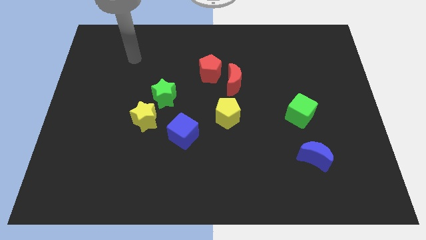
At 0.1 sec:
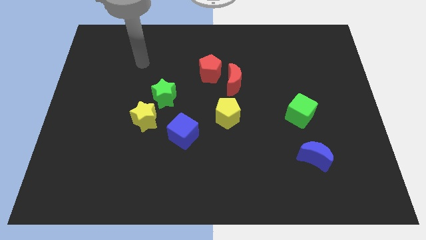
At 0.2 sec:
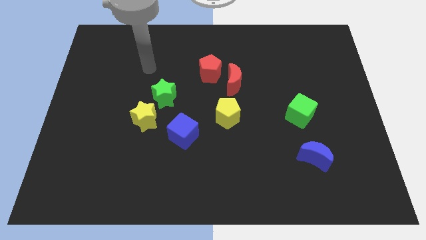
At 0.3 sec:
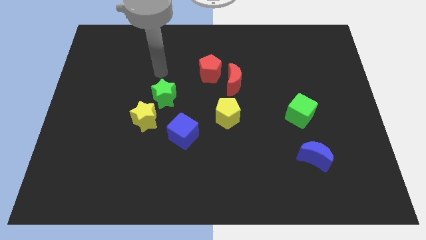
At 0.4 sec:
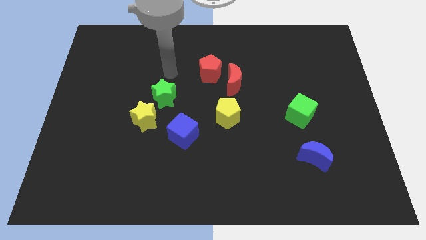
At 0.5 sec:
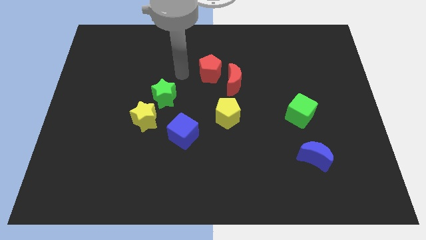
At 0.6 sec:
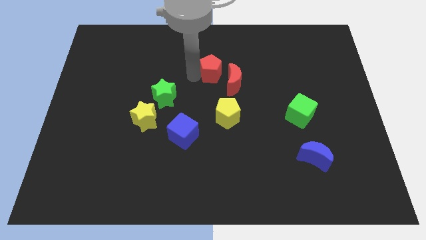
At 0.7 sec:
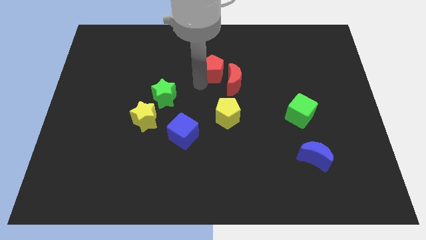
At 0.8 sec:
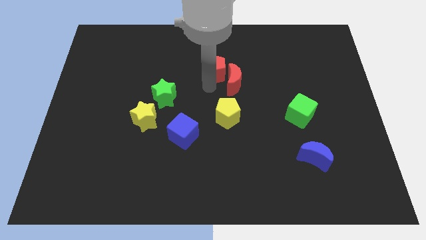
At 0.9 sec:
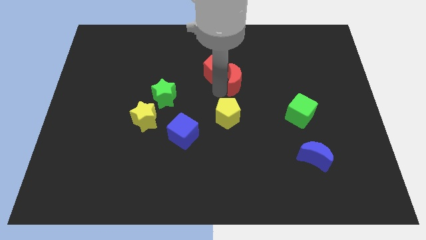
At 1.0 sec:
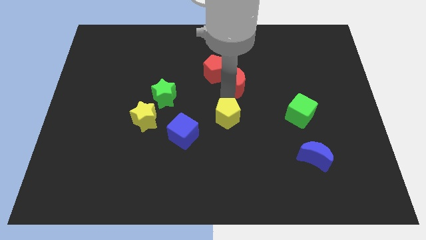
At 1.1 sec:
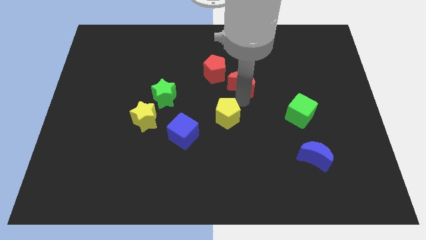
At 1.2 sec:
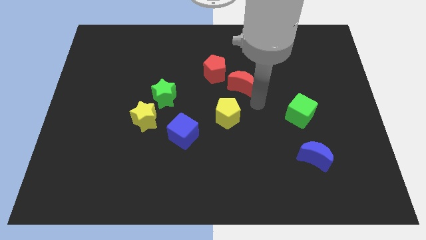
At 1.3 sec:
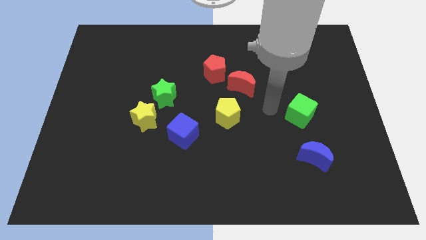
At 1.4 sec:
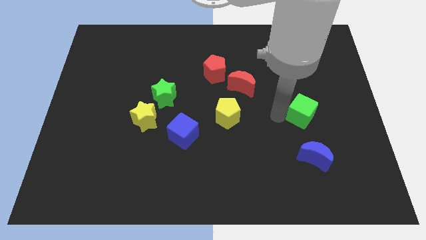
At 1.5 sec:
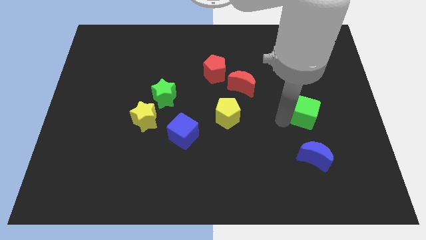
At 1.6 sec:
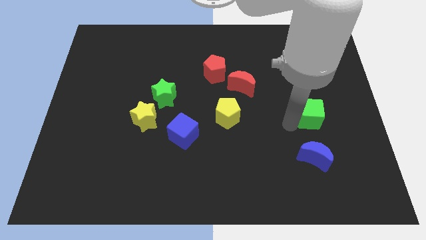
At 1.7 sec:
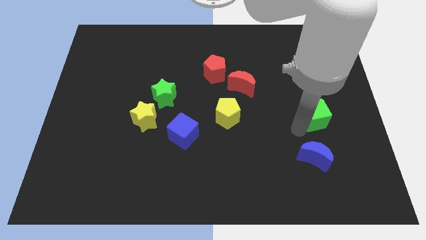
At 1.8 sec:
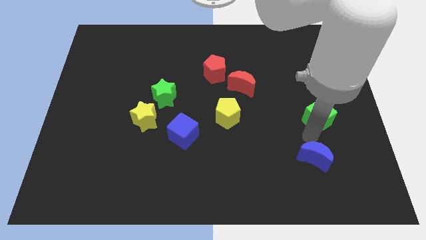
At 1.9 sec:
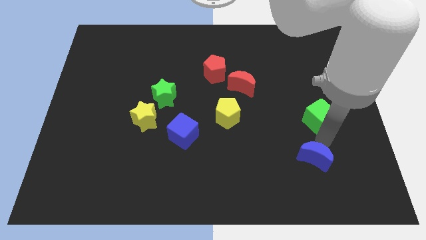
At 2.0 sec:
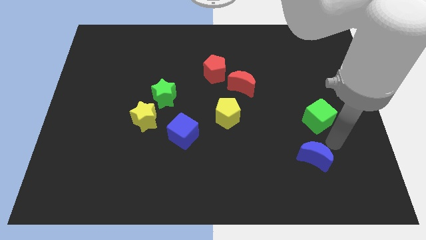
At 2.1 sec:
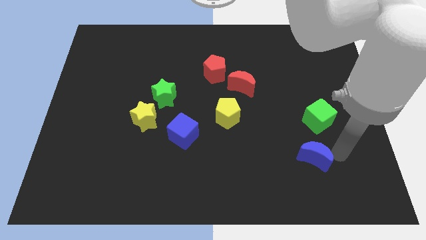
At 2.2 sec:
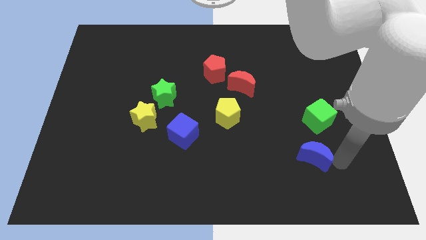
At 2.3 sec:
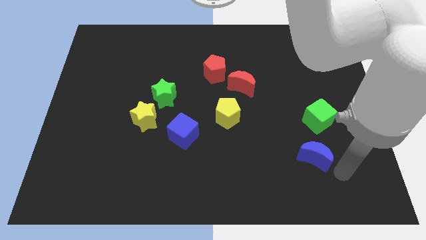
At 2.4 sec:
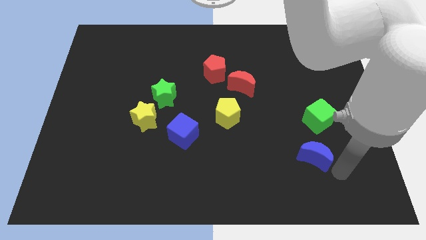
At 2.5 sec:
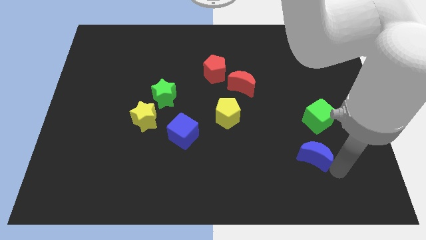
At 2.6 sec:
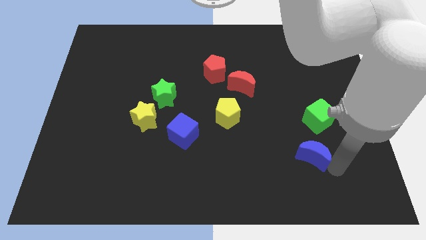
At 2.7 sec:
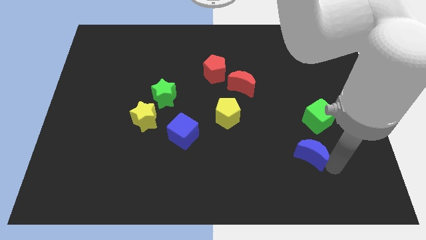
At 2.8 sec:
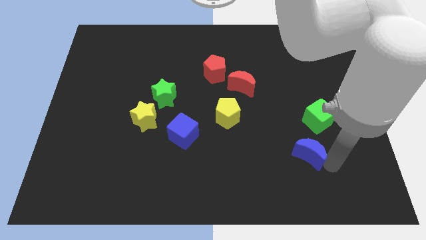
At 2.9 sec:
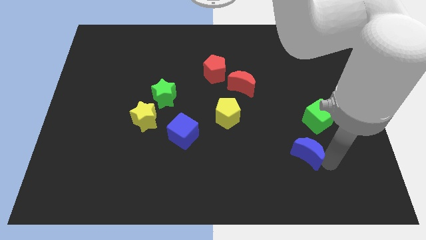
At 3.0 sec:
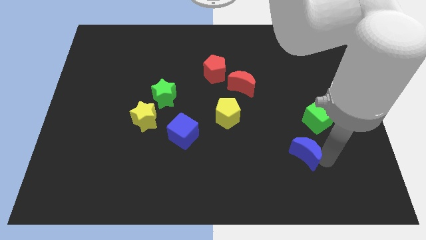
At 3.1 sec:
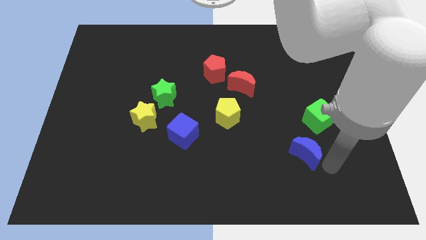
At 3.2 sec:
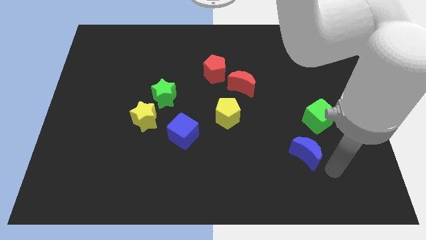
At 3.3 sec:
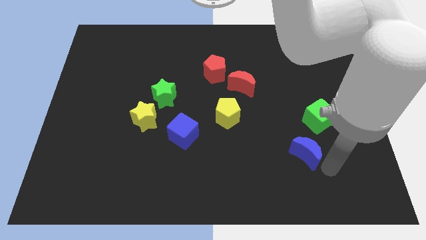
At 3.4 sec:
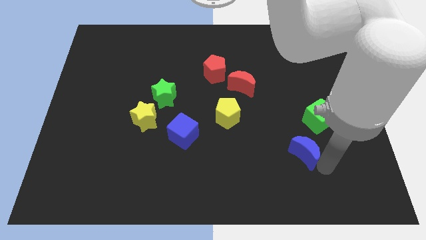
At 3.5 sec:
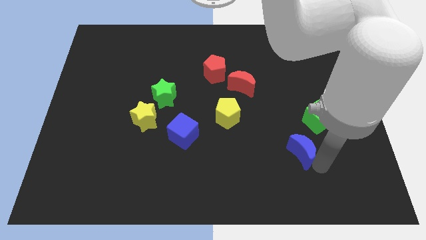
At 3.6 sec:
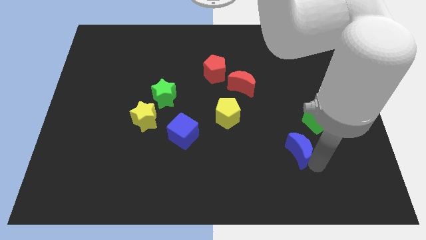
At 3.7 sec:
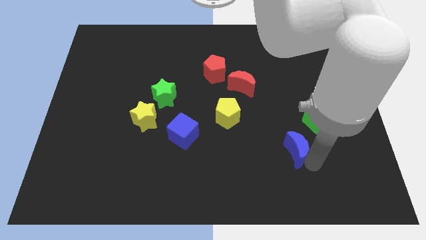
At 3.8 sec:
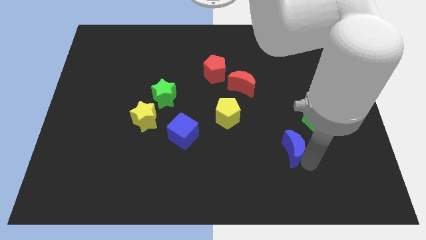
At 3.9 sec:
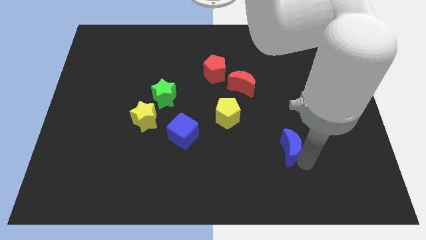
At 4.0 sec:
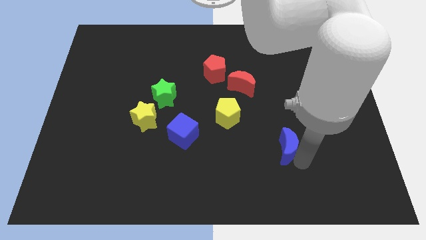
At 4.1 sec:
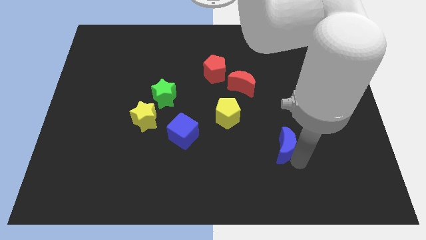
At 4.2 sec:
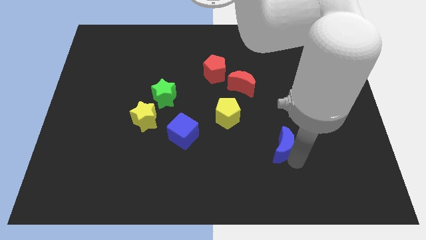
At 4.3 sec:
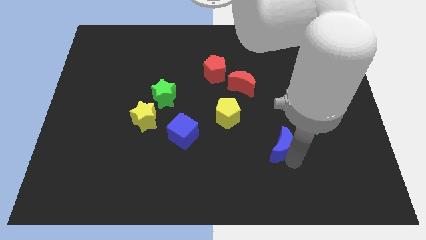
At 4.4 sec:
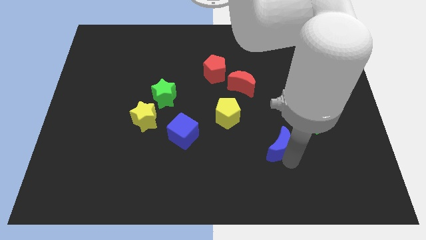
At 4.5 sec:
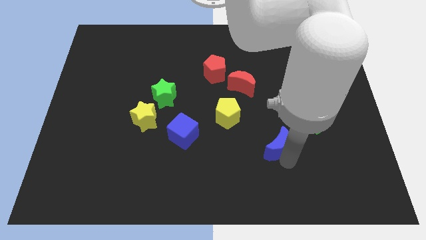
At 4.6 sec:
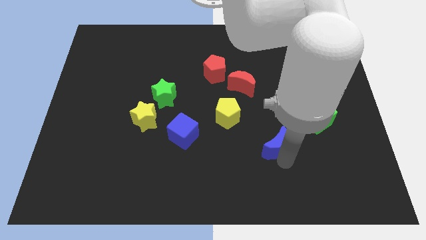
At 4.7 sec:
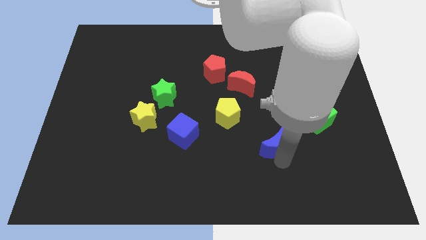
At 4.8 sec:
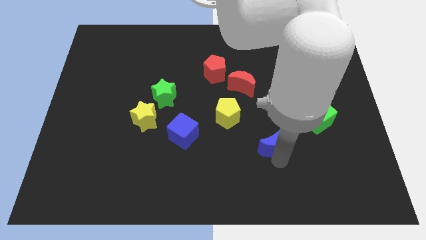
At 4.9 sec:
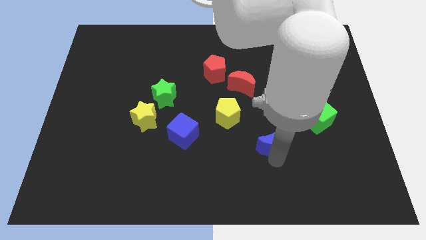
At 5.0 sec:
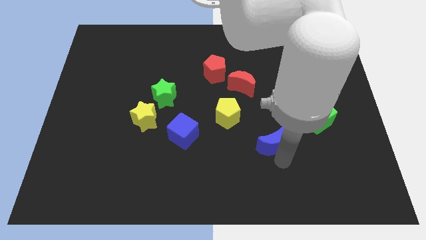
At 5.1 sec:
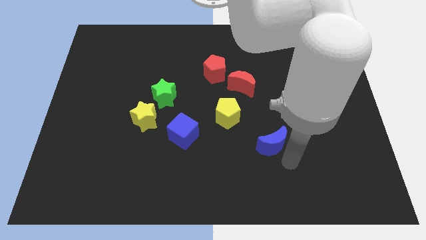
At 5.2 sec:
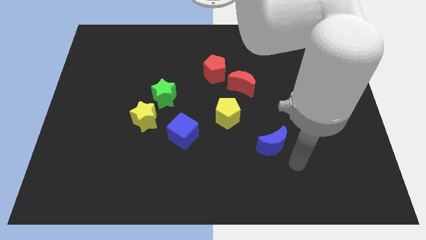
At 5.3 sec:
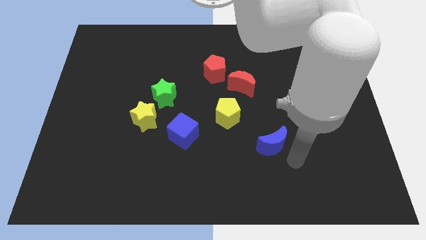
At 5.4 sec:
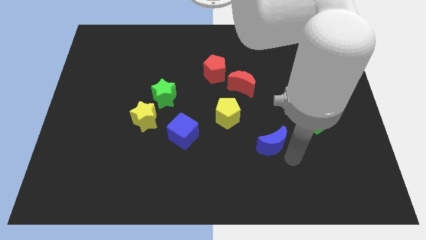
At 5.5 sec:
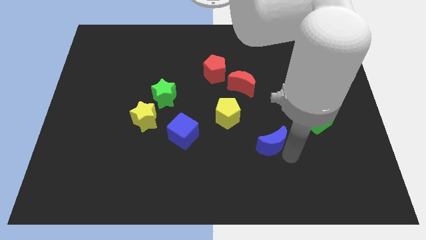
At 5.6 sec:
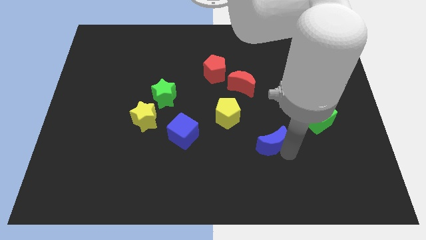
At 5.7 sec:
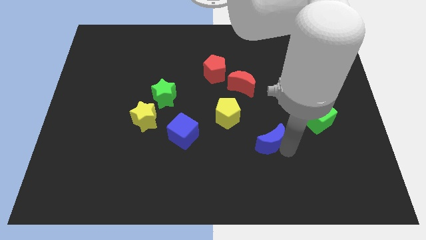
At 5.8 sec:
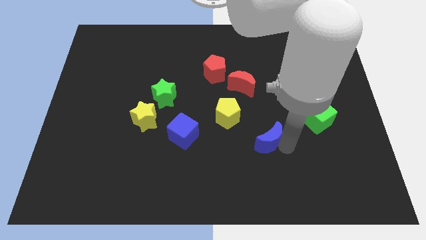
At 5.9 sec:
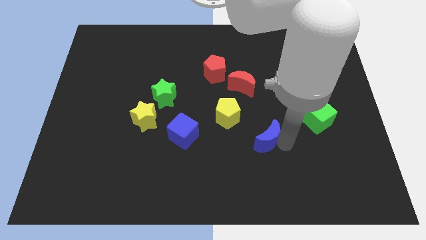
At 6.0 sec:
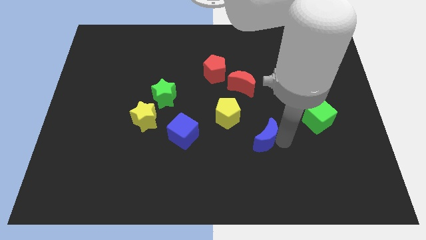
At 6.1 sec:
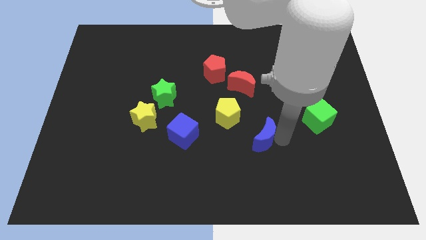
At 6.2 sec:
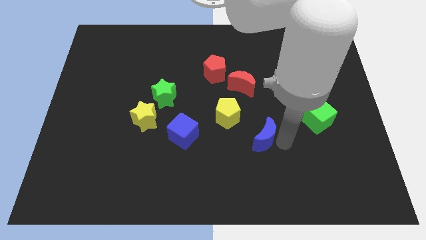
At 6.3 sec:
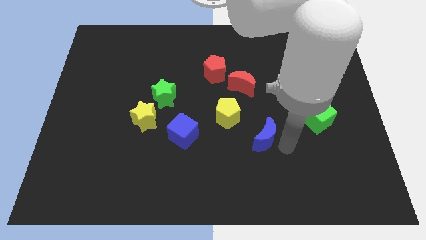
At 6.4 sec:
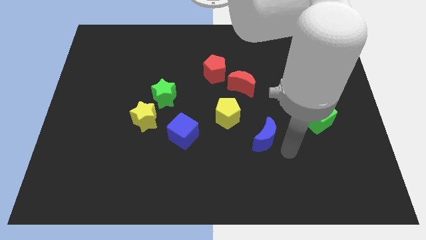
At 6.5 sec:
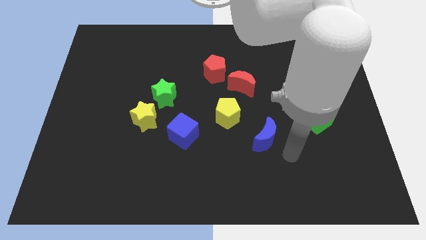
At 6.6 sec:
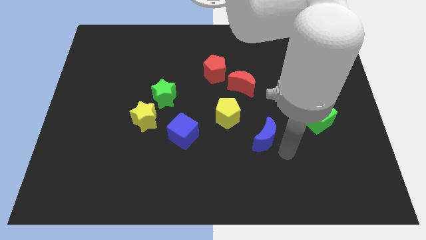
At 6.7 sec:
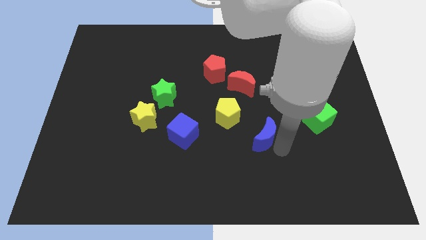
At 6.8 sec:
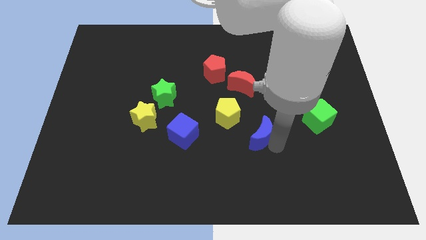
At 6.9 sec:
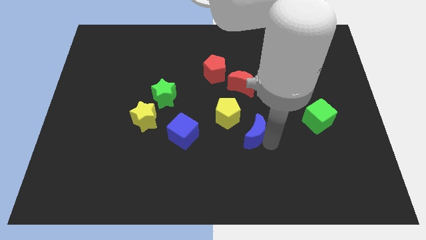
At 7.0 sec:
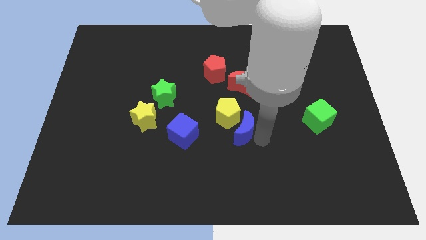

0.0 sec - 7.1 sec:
push the blue moon close to the yellow pentagon
